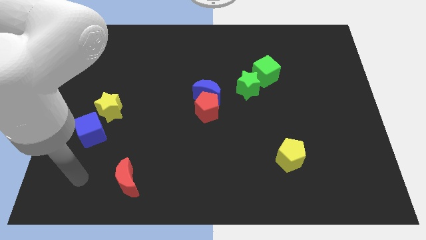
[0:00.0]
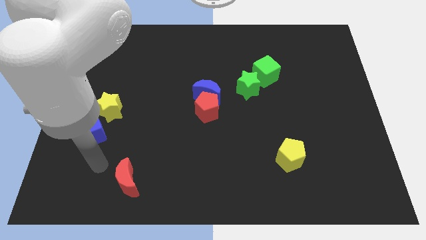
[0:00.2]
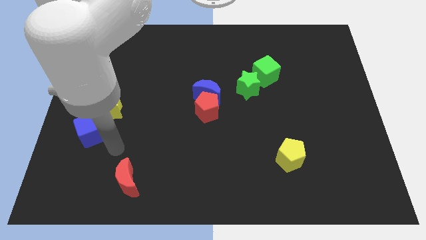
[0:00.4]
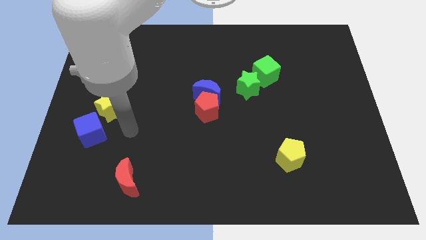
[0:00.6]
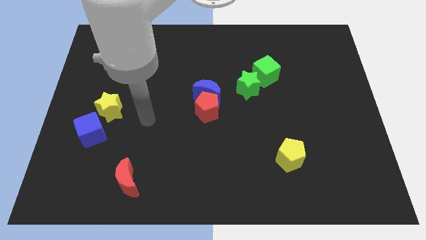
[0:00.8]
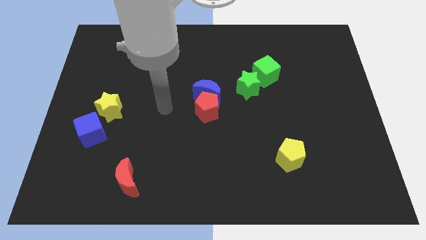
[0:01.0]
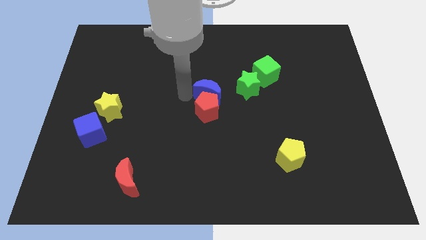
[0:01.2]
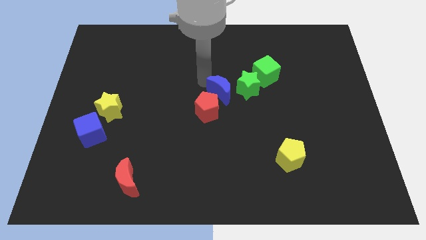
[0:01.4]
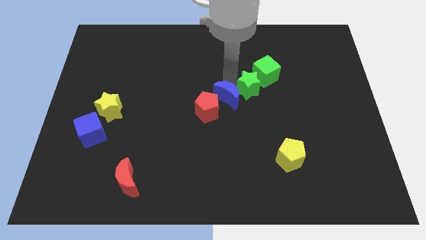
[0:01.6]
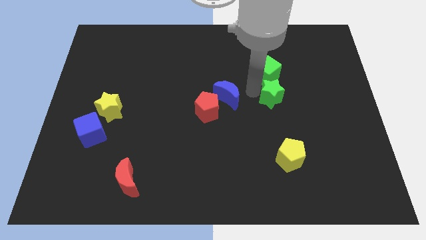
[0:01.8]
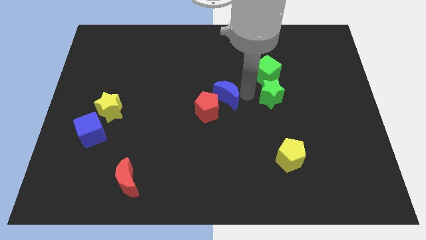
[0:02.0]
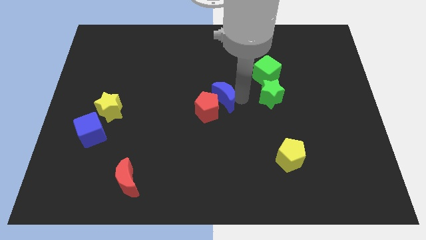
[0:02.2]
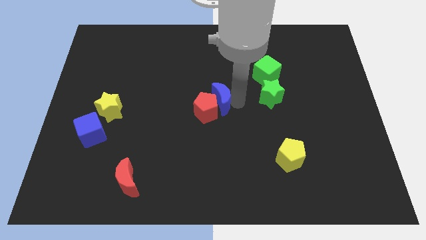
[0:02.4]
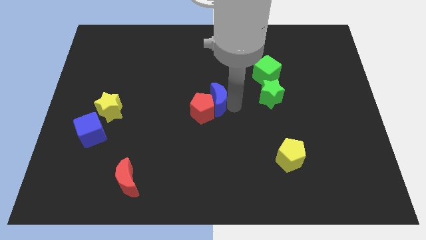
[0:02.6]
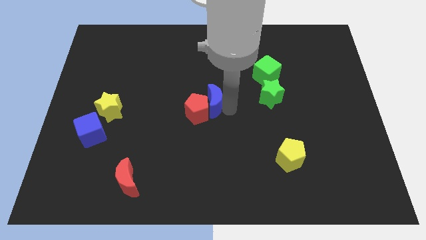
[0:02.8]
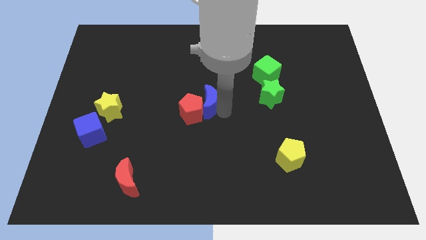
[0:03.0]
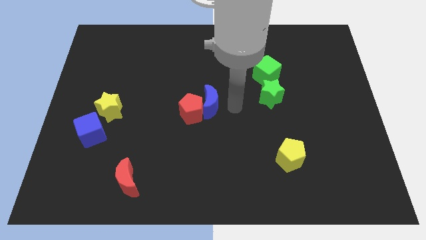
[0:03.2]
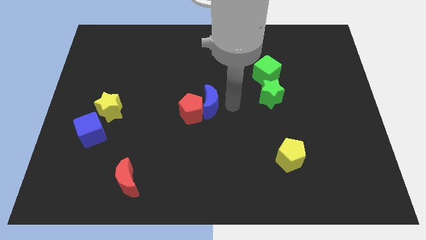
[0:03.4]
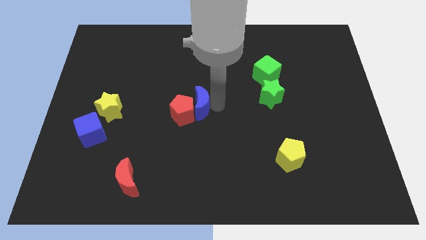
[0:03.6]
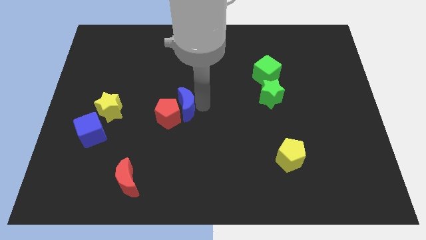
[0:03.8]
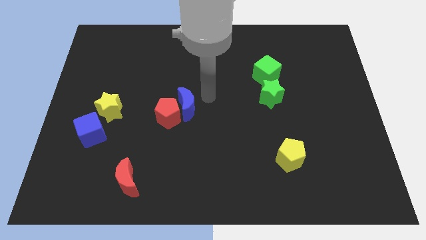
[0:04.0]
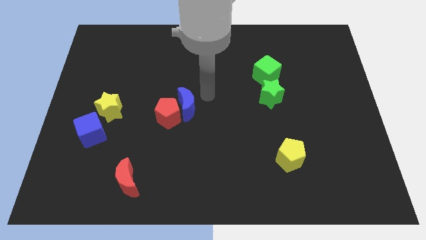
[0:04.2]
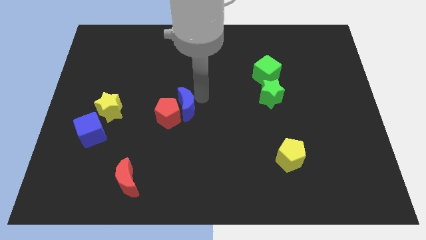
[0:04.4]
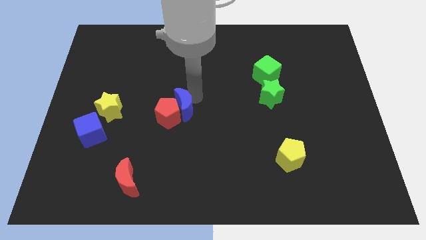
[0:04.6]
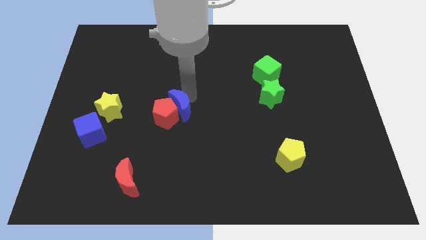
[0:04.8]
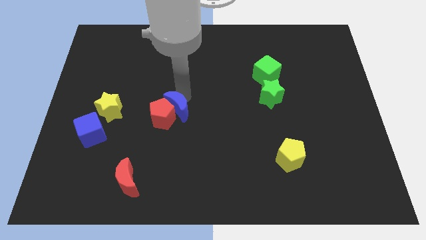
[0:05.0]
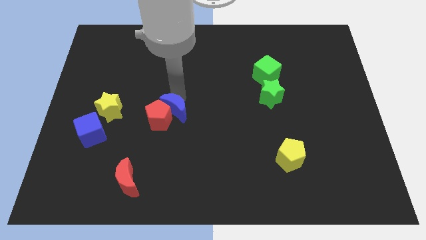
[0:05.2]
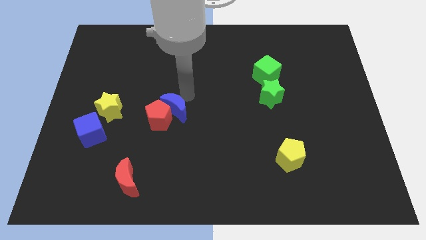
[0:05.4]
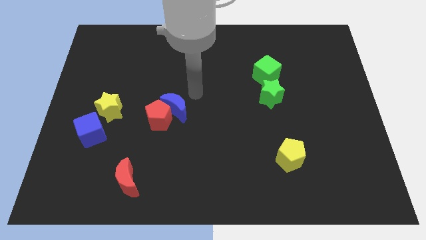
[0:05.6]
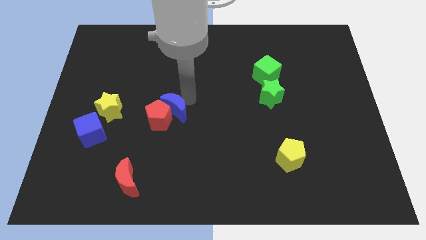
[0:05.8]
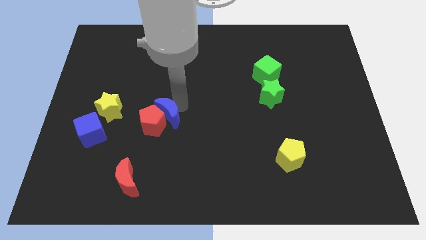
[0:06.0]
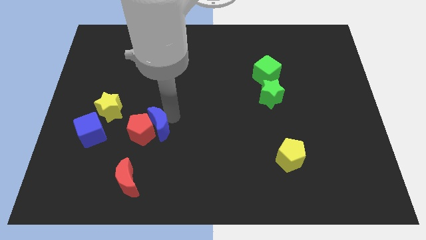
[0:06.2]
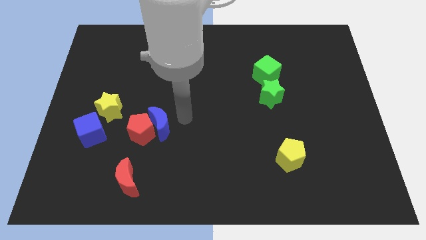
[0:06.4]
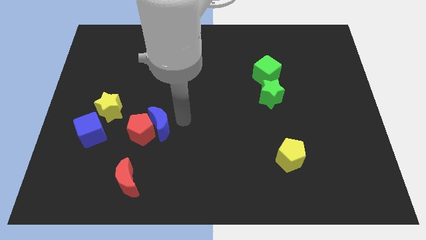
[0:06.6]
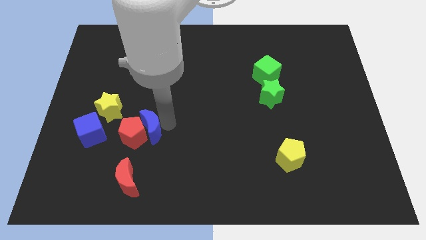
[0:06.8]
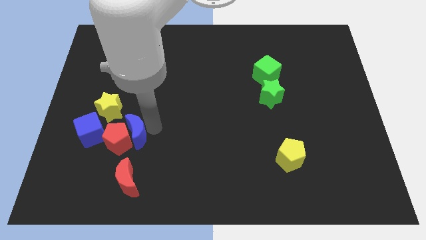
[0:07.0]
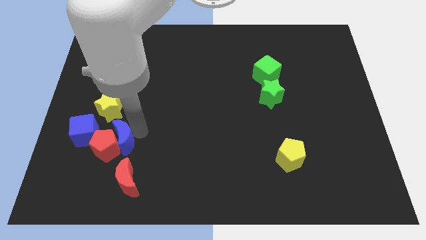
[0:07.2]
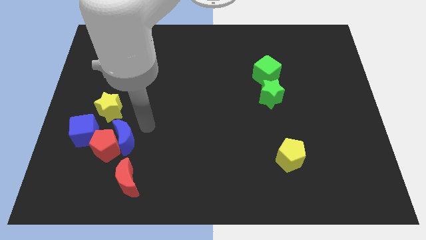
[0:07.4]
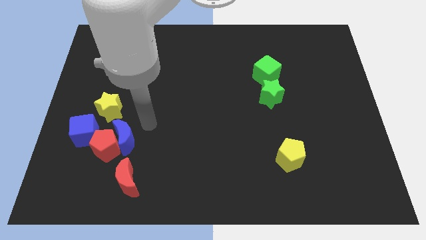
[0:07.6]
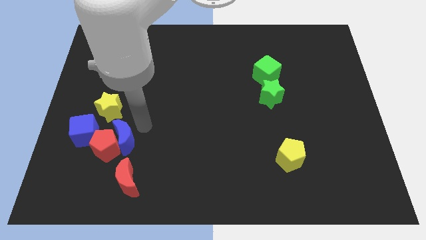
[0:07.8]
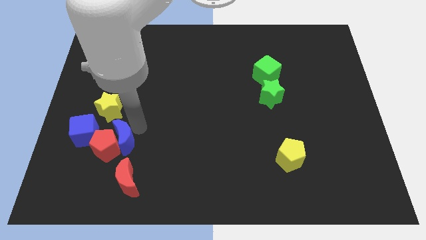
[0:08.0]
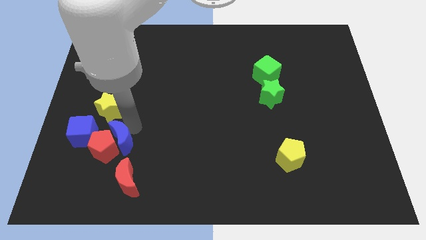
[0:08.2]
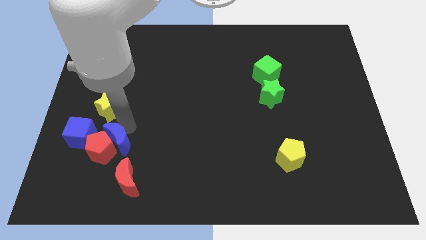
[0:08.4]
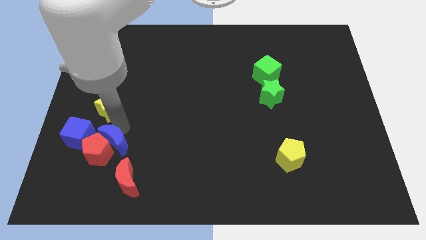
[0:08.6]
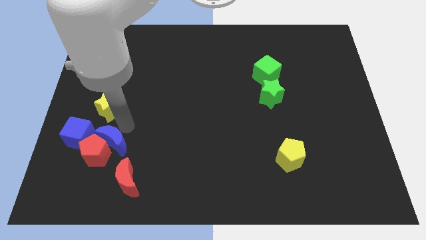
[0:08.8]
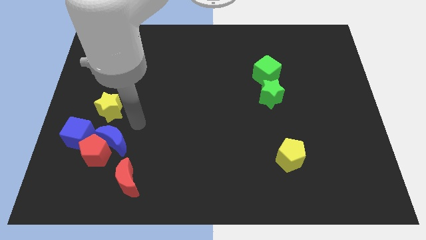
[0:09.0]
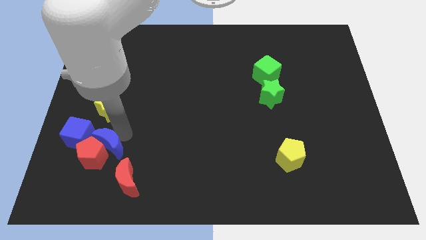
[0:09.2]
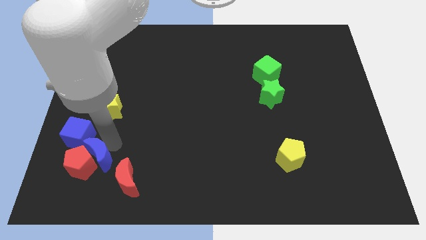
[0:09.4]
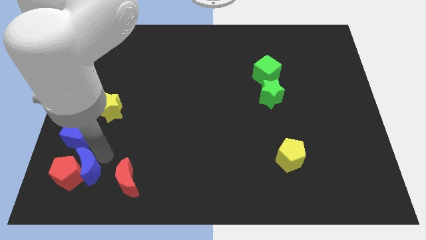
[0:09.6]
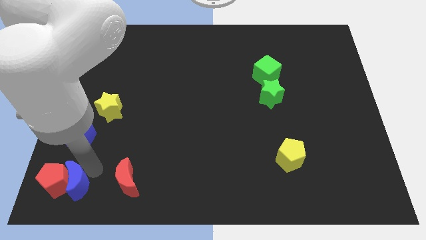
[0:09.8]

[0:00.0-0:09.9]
move the blue moon to the bottom left corner

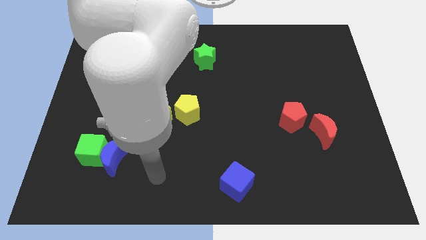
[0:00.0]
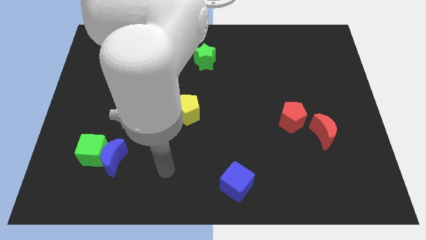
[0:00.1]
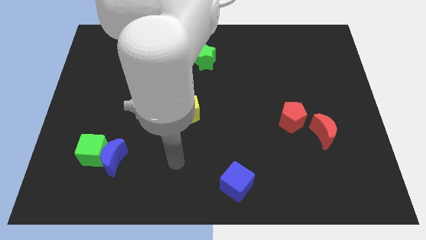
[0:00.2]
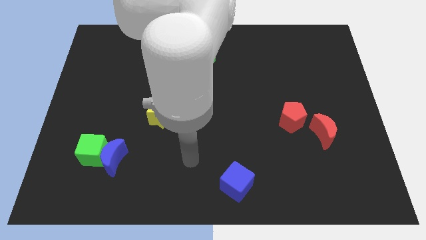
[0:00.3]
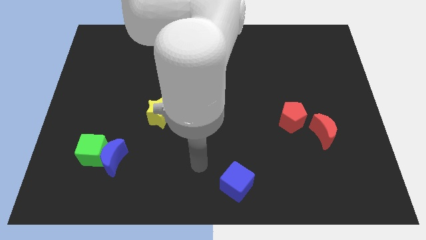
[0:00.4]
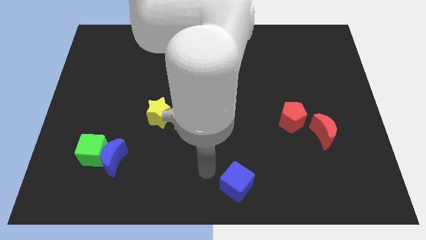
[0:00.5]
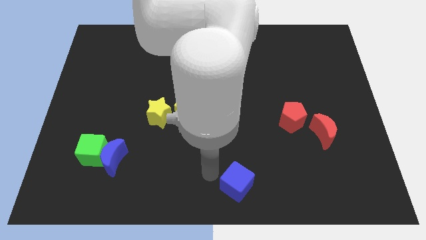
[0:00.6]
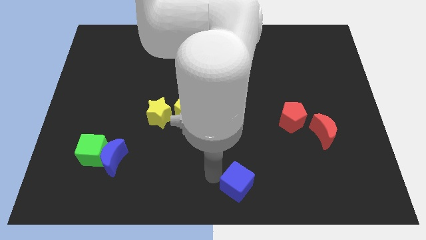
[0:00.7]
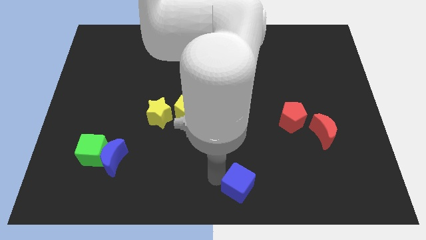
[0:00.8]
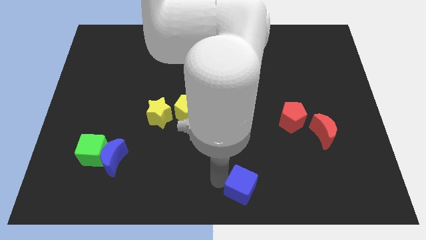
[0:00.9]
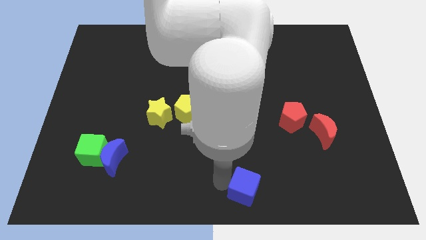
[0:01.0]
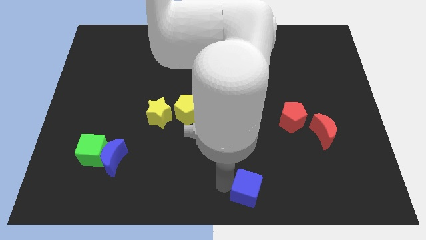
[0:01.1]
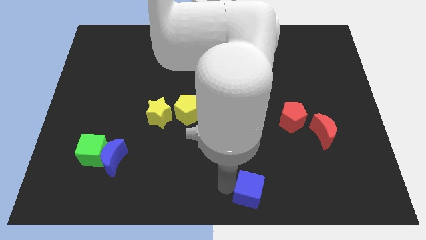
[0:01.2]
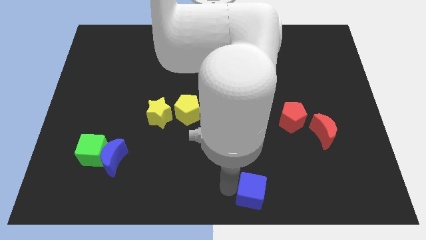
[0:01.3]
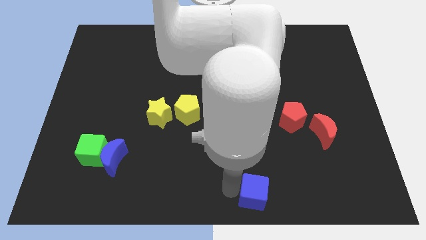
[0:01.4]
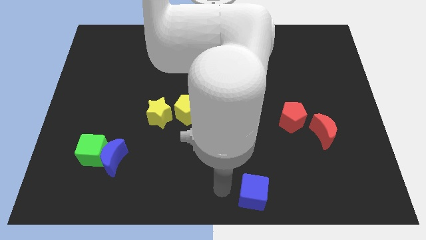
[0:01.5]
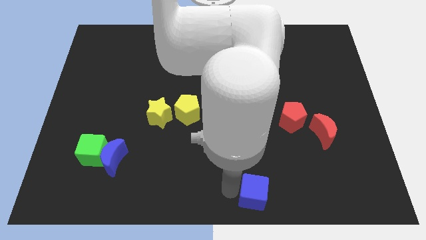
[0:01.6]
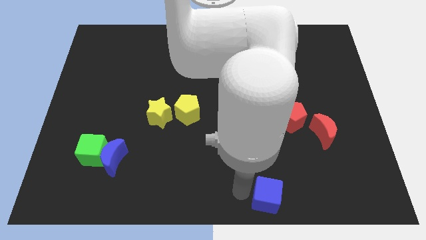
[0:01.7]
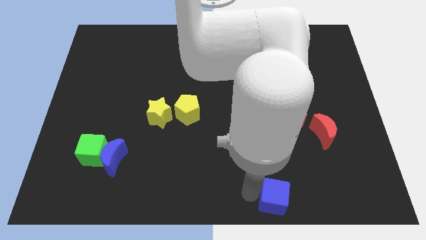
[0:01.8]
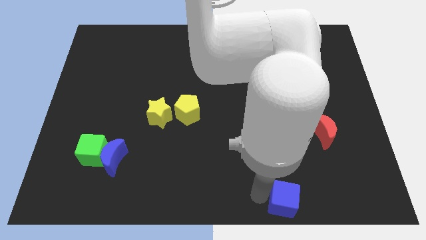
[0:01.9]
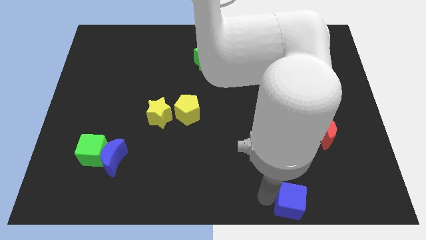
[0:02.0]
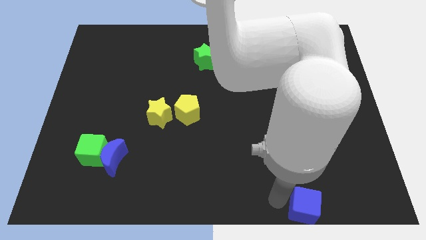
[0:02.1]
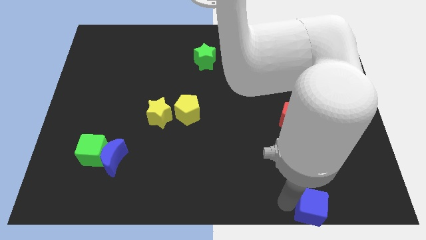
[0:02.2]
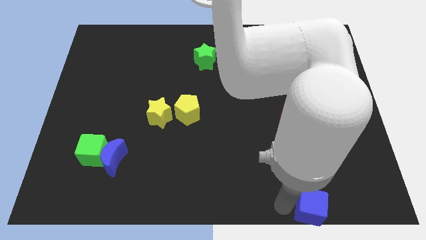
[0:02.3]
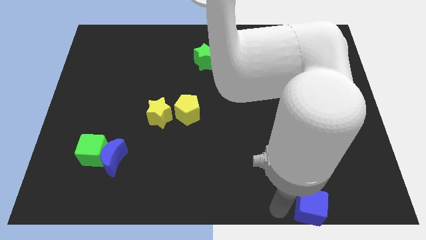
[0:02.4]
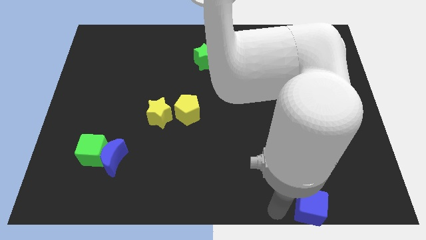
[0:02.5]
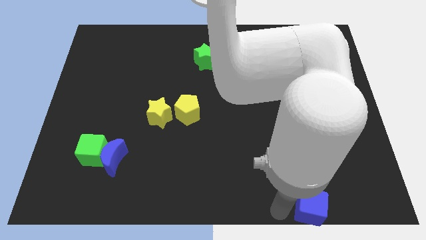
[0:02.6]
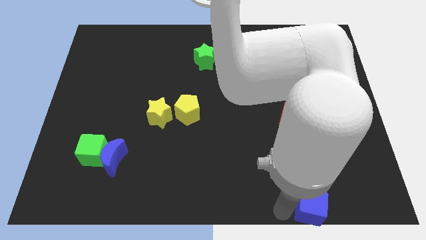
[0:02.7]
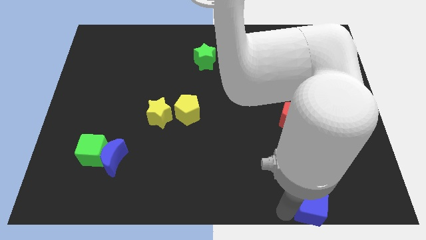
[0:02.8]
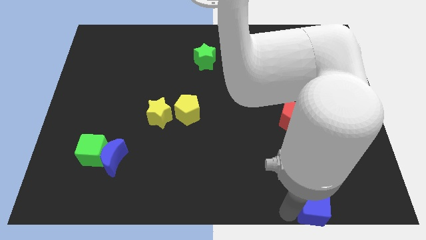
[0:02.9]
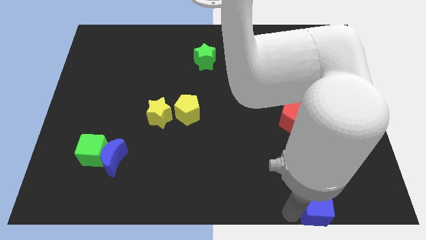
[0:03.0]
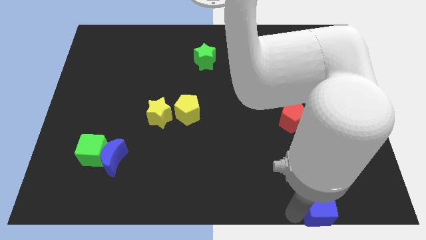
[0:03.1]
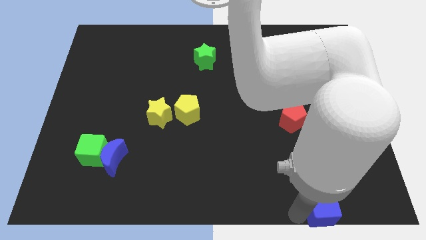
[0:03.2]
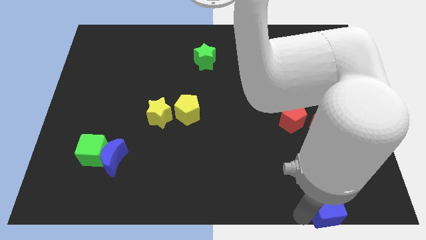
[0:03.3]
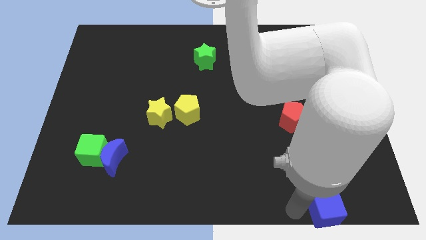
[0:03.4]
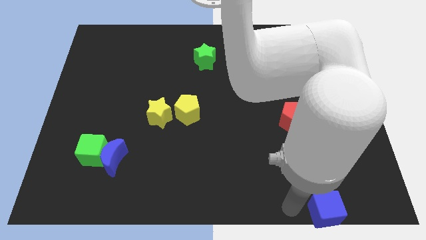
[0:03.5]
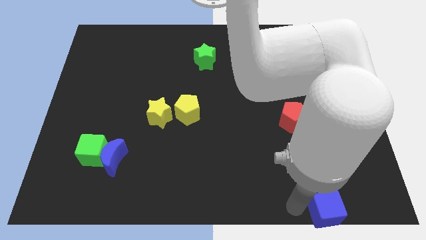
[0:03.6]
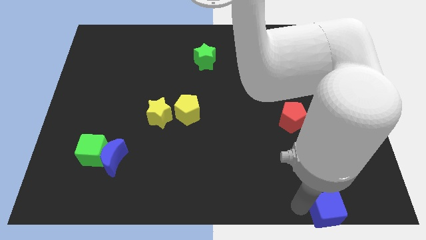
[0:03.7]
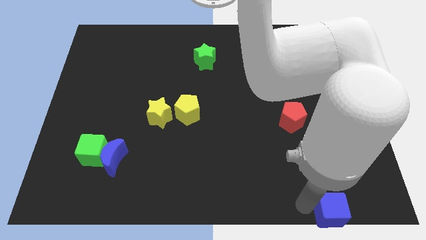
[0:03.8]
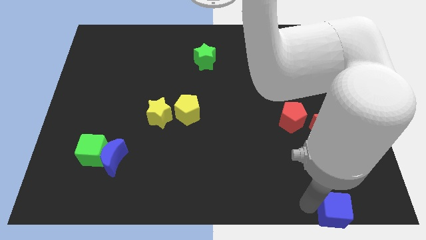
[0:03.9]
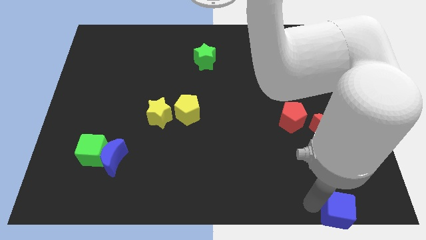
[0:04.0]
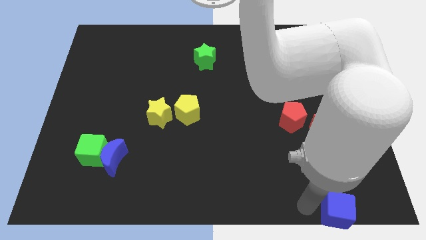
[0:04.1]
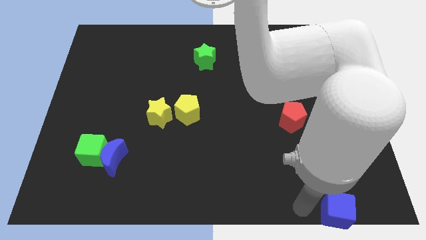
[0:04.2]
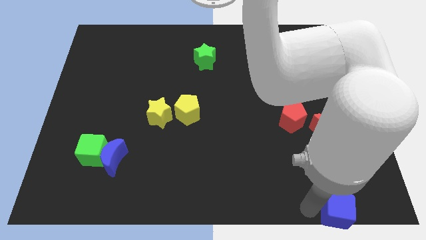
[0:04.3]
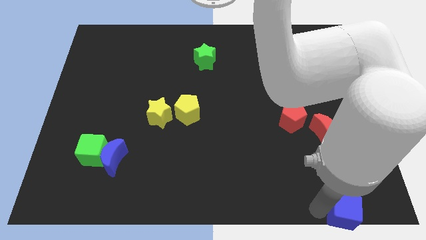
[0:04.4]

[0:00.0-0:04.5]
push the blue cube to the bottom right corner
